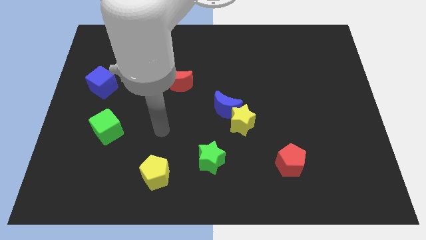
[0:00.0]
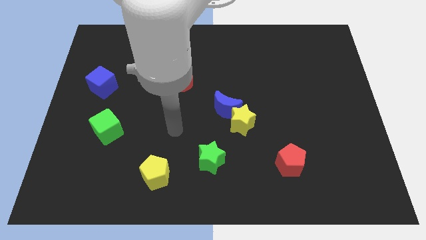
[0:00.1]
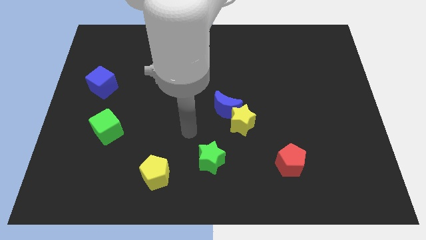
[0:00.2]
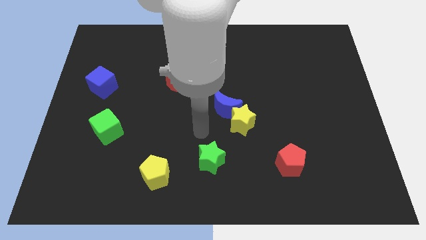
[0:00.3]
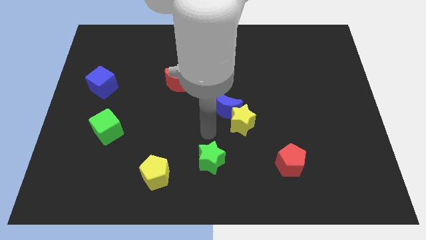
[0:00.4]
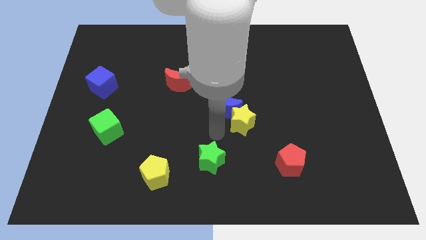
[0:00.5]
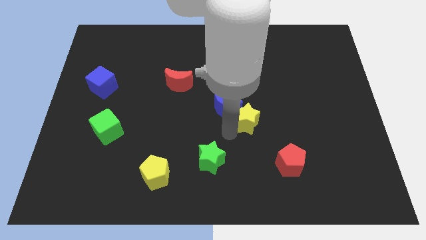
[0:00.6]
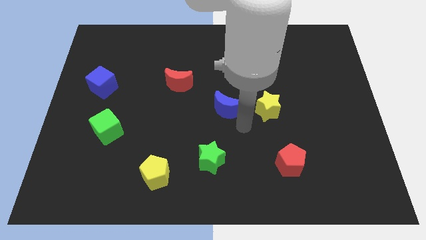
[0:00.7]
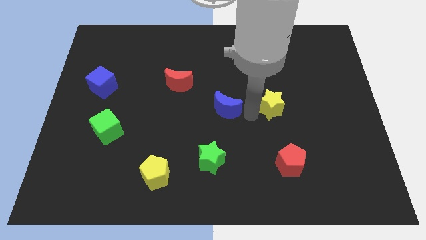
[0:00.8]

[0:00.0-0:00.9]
separate the blue moon from the yellow star

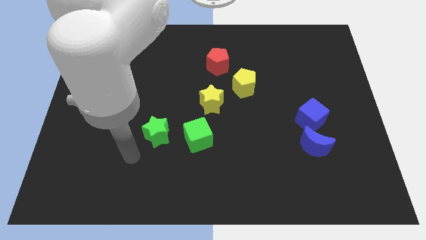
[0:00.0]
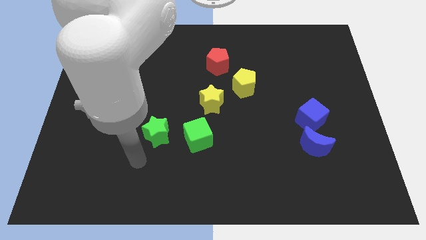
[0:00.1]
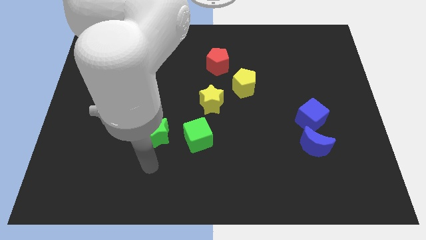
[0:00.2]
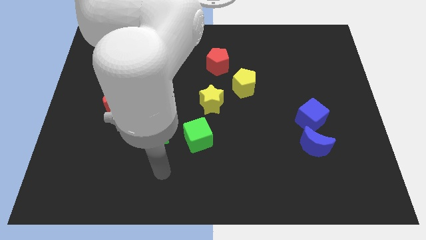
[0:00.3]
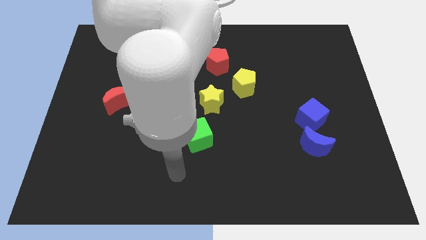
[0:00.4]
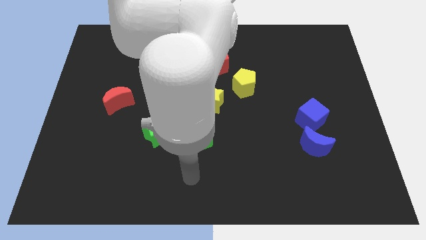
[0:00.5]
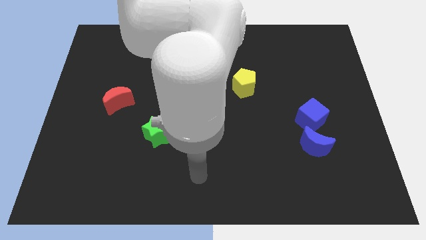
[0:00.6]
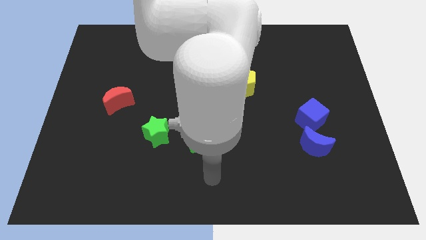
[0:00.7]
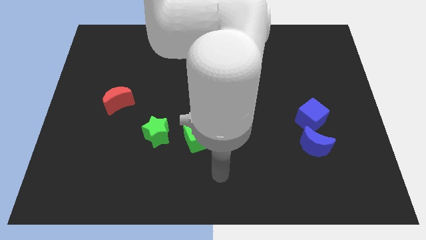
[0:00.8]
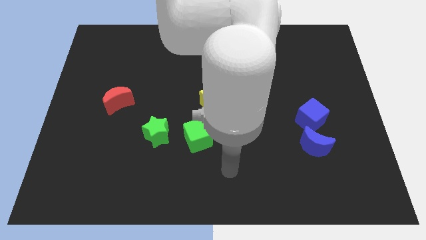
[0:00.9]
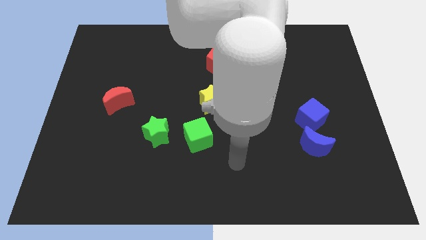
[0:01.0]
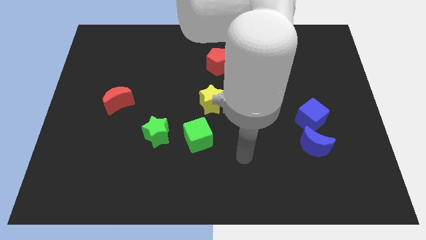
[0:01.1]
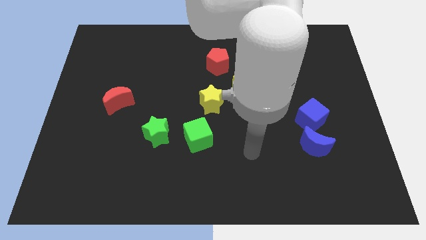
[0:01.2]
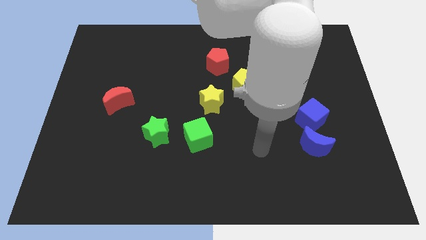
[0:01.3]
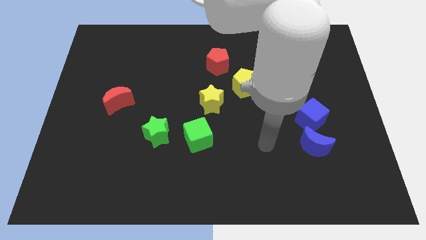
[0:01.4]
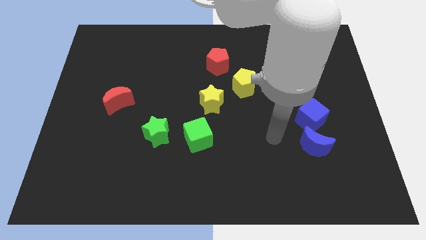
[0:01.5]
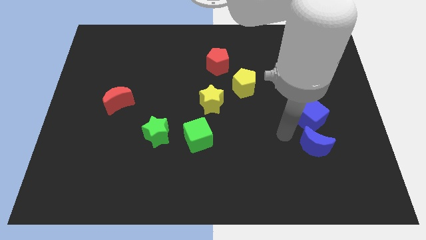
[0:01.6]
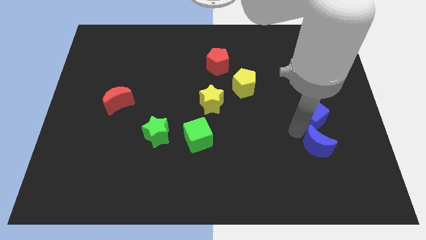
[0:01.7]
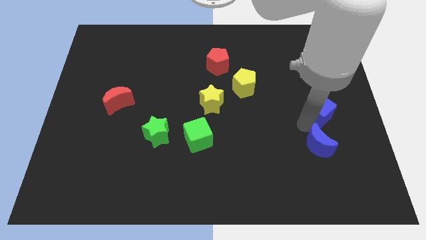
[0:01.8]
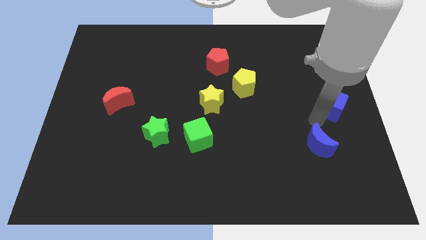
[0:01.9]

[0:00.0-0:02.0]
pull the blue moon apart from the blue cube

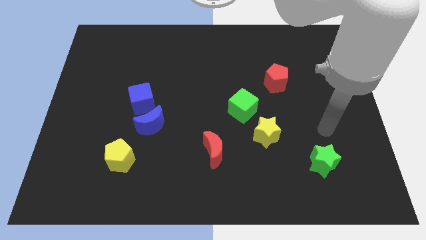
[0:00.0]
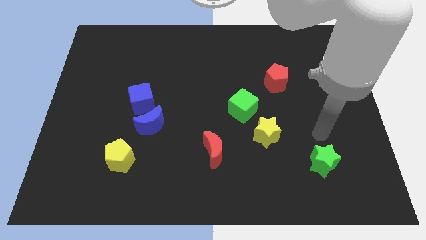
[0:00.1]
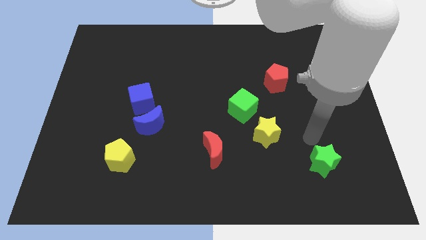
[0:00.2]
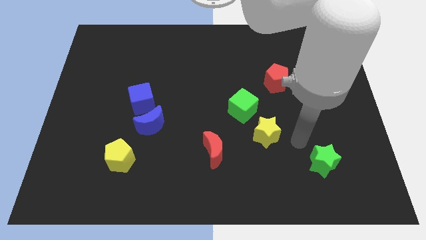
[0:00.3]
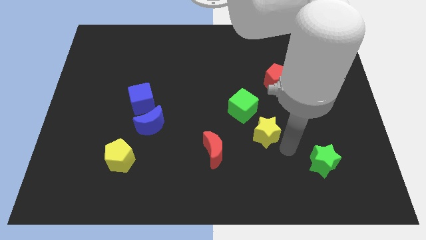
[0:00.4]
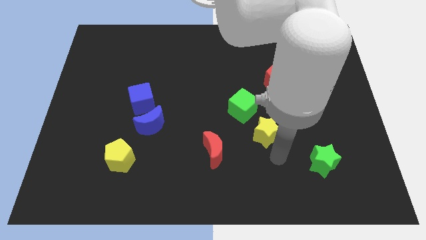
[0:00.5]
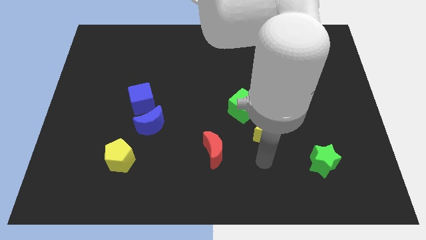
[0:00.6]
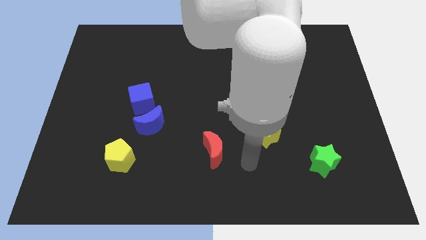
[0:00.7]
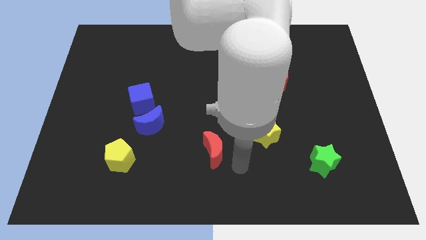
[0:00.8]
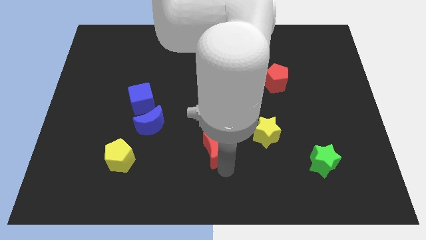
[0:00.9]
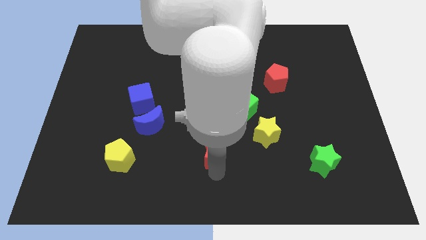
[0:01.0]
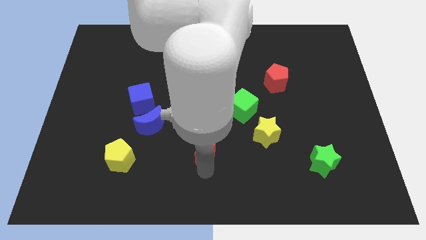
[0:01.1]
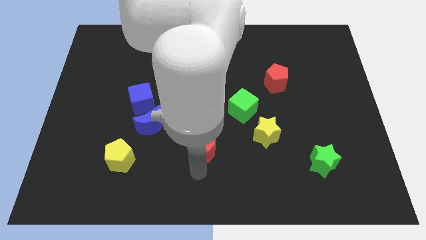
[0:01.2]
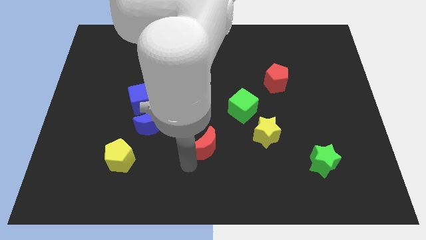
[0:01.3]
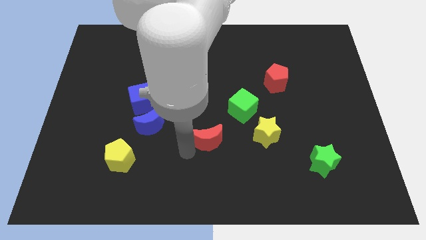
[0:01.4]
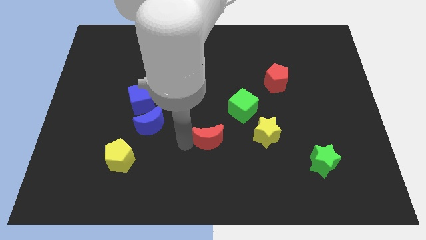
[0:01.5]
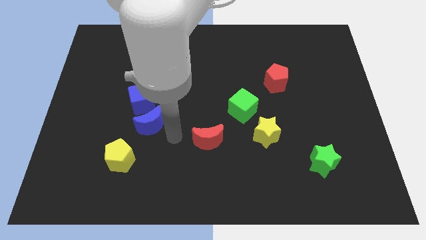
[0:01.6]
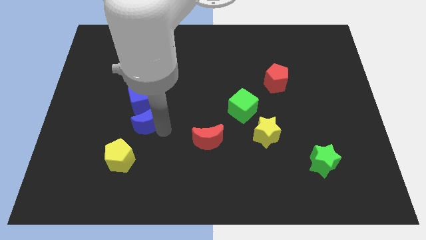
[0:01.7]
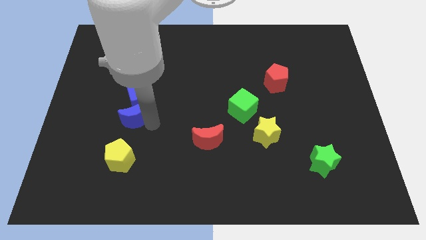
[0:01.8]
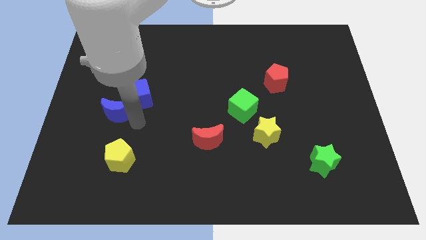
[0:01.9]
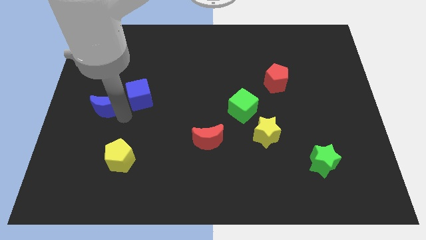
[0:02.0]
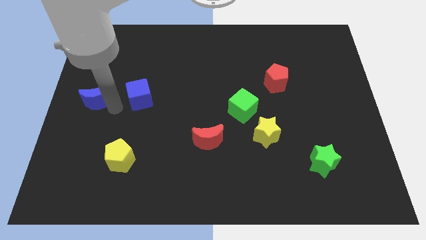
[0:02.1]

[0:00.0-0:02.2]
pull the blue cube apart from the blue moon

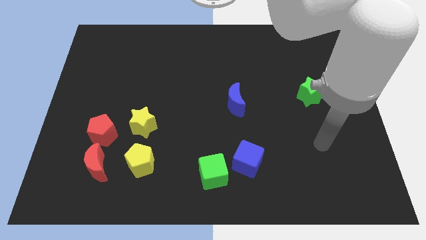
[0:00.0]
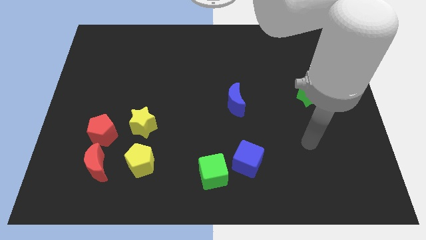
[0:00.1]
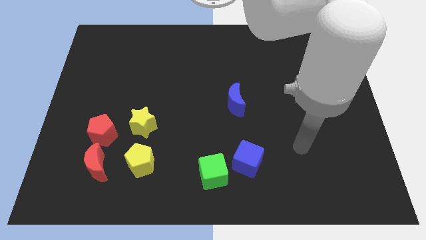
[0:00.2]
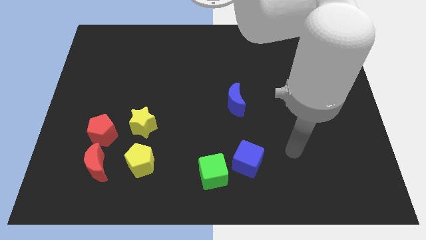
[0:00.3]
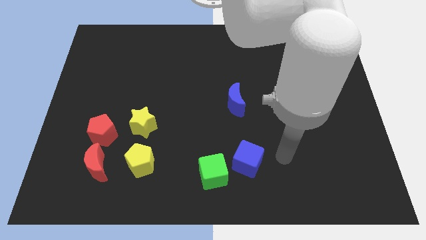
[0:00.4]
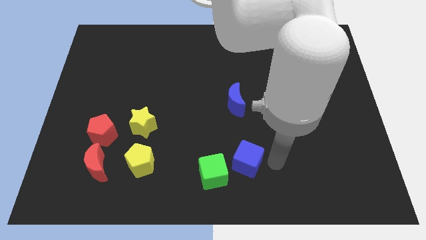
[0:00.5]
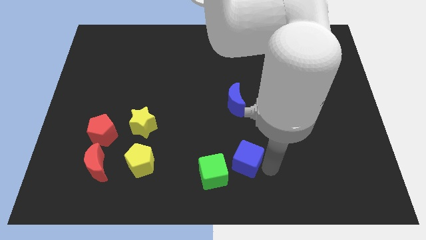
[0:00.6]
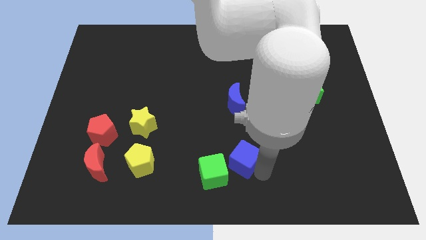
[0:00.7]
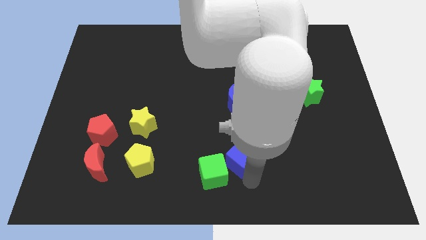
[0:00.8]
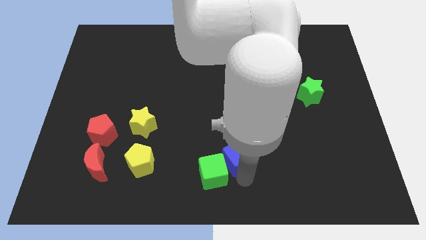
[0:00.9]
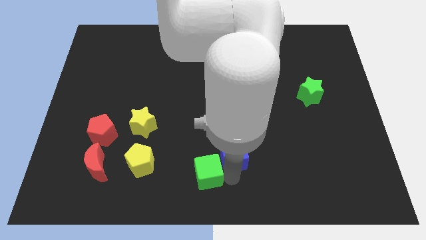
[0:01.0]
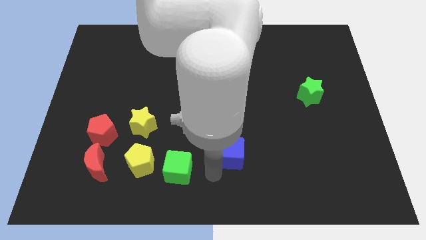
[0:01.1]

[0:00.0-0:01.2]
separate the blue cube from the green cube

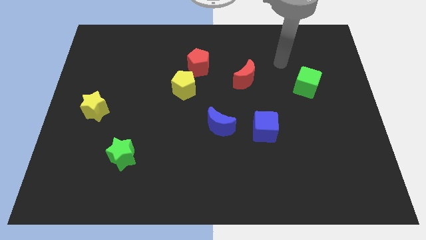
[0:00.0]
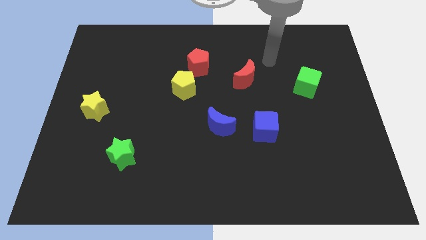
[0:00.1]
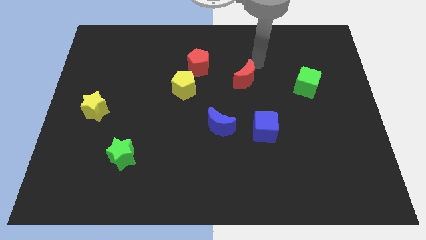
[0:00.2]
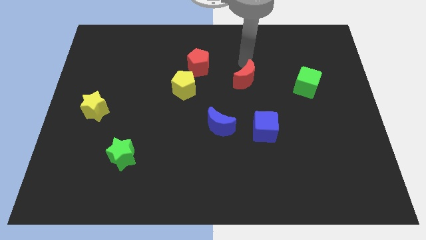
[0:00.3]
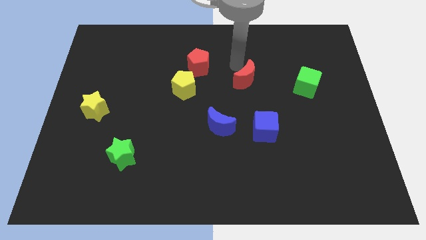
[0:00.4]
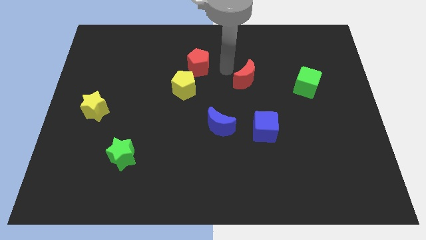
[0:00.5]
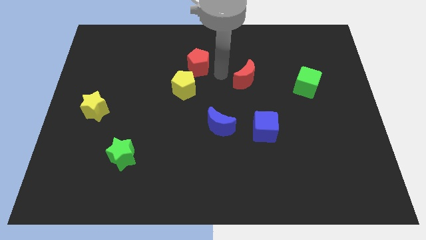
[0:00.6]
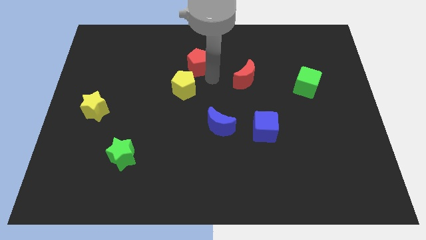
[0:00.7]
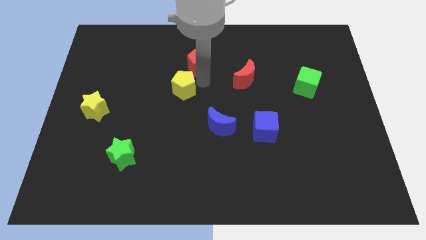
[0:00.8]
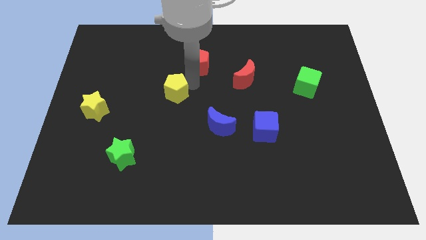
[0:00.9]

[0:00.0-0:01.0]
move the red pentagon away from the yellow pentagon

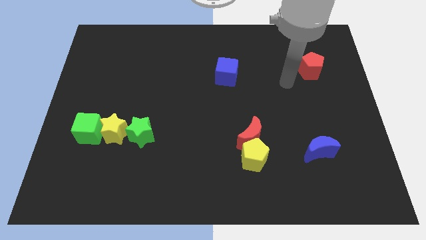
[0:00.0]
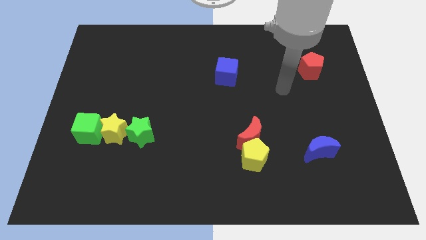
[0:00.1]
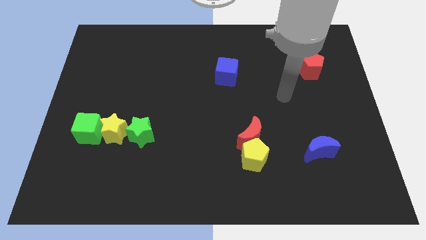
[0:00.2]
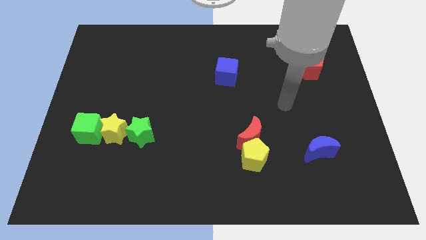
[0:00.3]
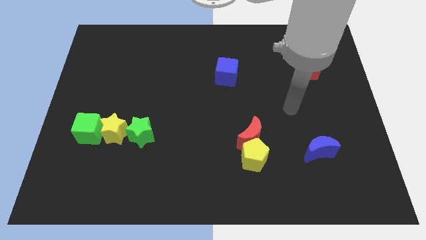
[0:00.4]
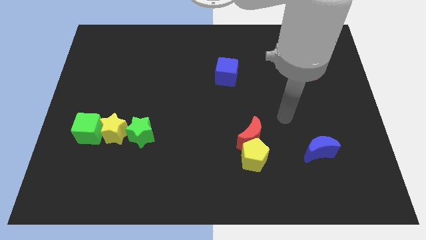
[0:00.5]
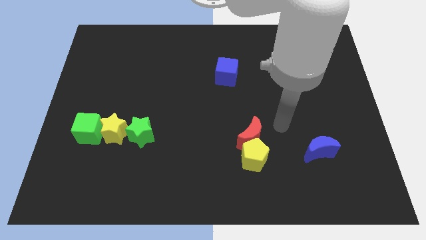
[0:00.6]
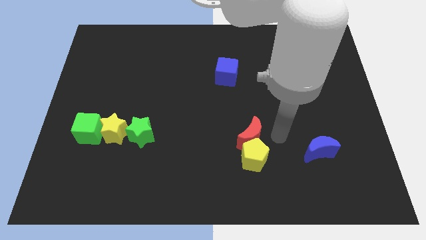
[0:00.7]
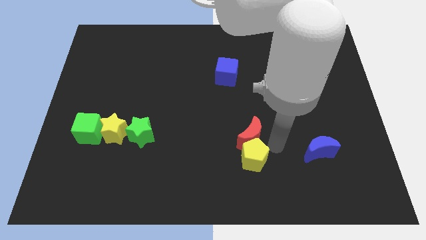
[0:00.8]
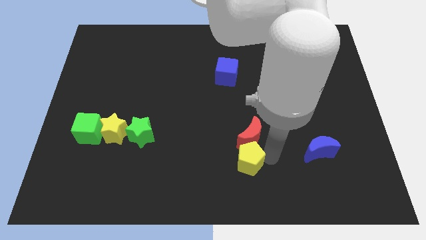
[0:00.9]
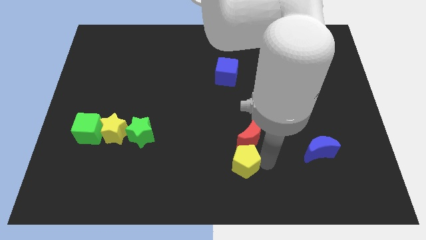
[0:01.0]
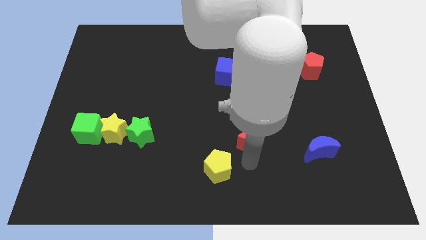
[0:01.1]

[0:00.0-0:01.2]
move the red moon away from the yellow pentagon

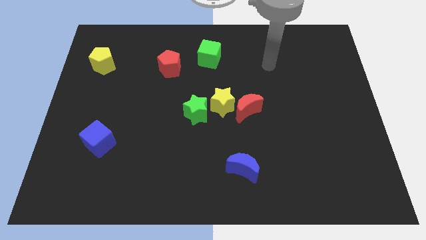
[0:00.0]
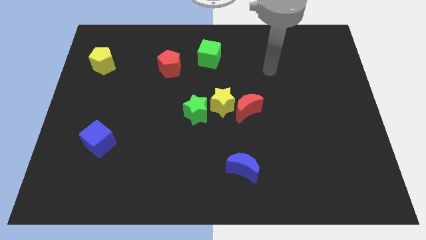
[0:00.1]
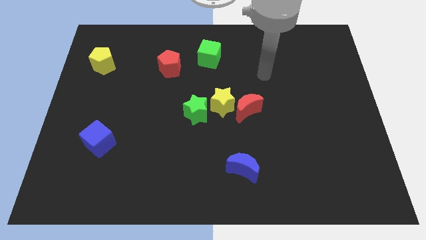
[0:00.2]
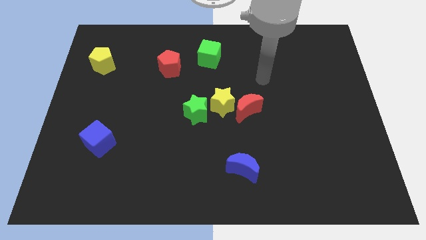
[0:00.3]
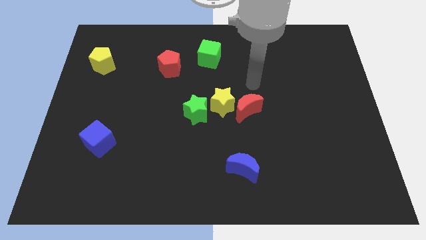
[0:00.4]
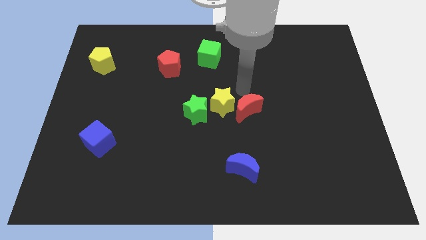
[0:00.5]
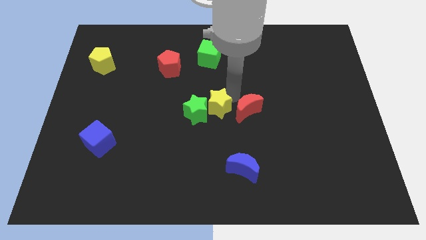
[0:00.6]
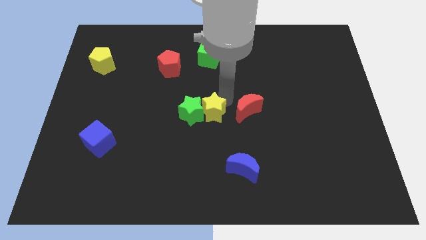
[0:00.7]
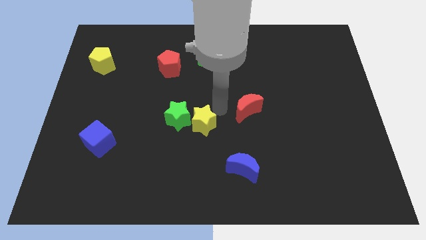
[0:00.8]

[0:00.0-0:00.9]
separate the red moon from the yellow star
